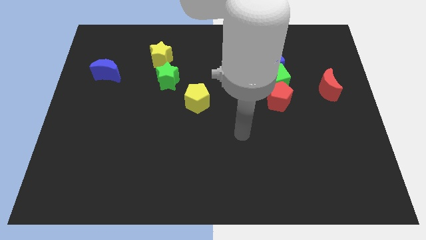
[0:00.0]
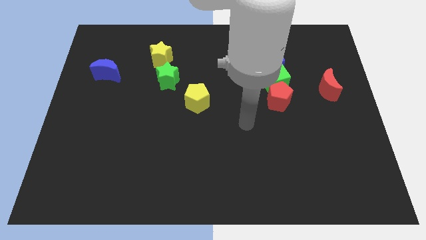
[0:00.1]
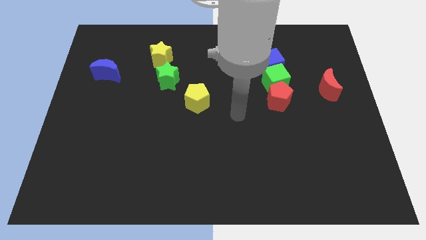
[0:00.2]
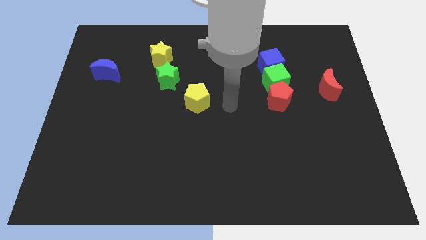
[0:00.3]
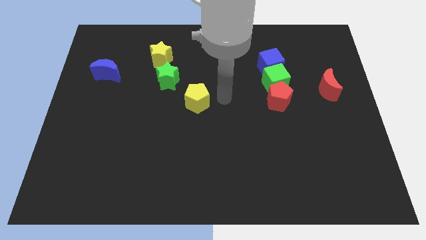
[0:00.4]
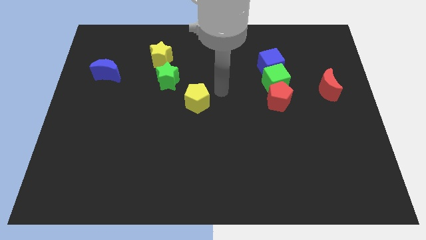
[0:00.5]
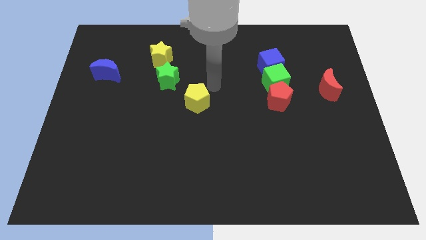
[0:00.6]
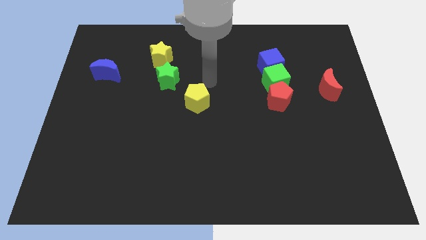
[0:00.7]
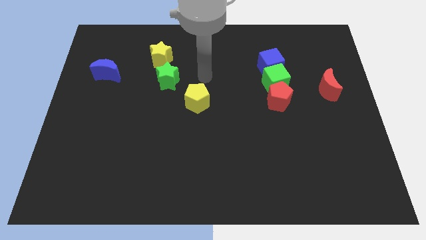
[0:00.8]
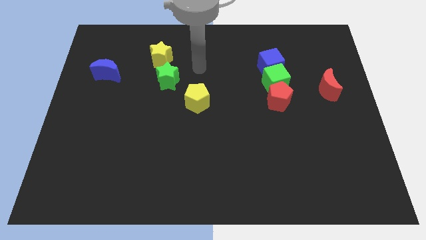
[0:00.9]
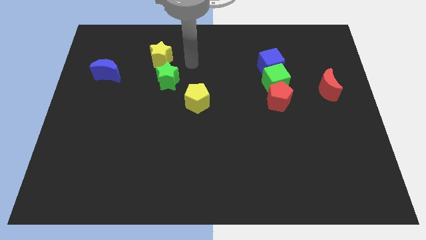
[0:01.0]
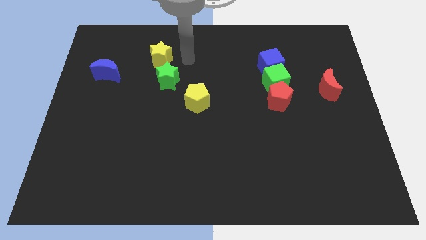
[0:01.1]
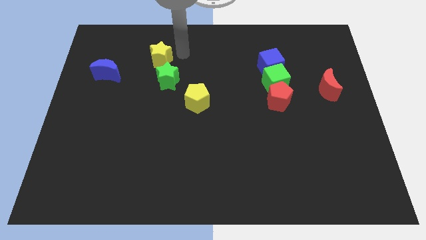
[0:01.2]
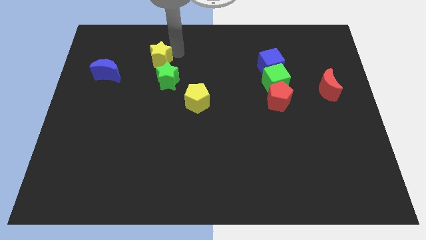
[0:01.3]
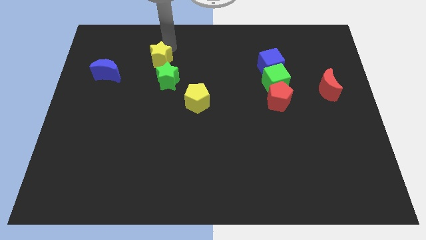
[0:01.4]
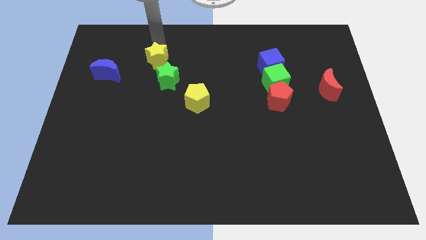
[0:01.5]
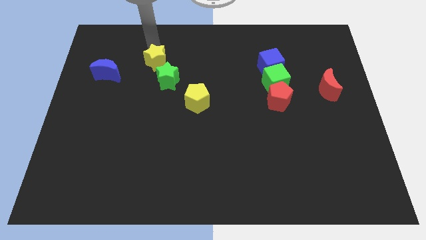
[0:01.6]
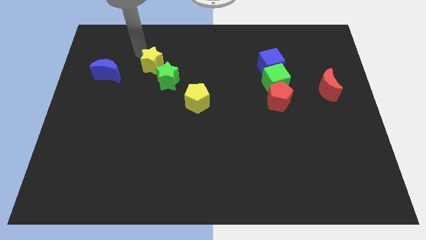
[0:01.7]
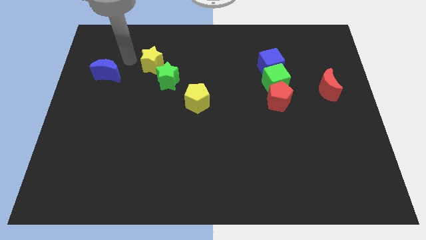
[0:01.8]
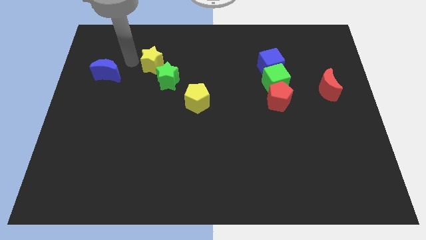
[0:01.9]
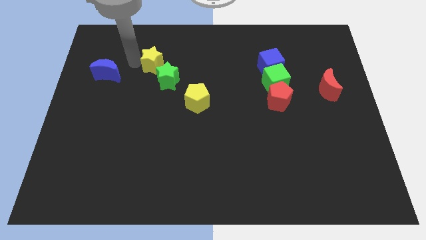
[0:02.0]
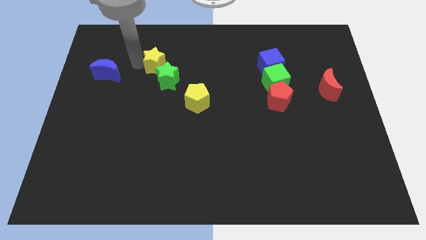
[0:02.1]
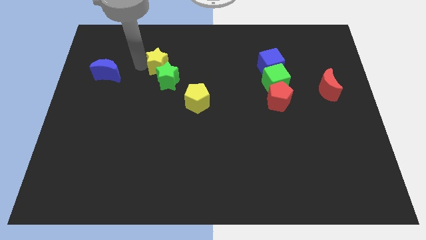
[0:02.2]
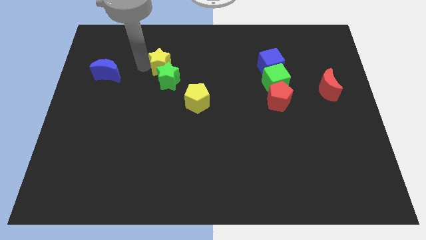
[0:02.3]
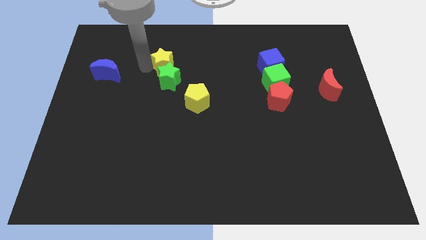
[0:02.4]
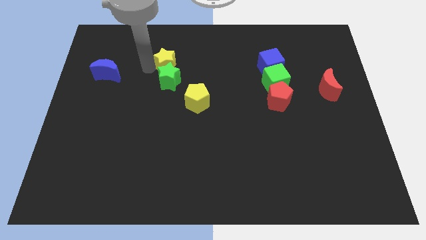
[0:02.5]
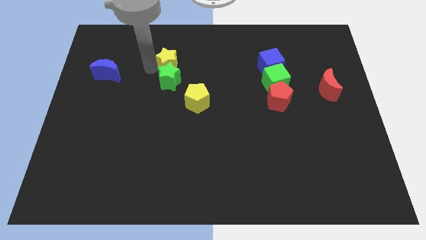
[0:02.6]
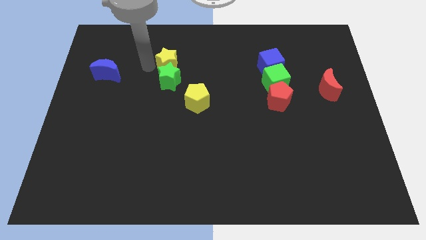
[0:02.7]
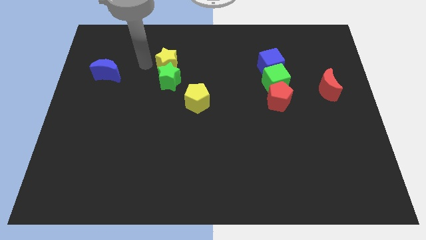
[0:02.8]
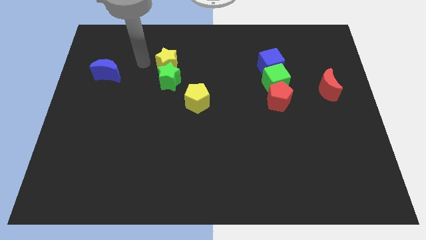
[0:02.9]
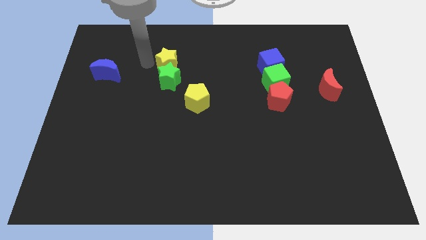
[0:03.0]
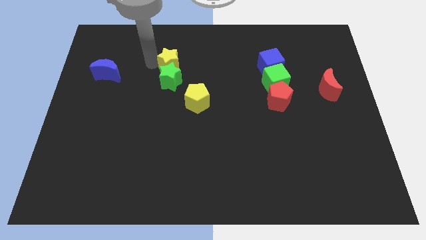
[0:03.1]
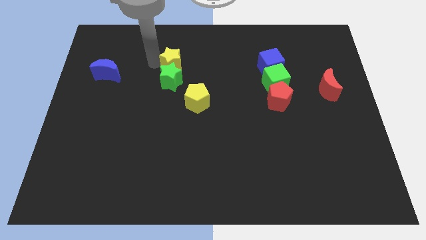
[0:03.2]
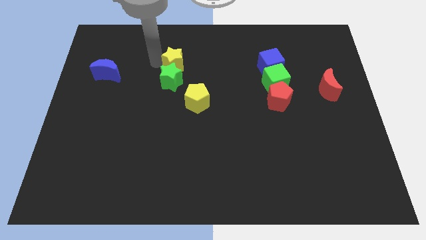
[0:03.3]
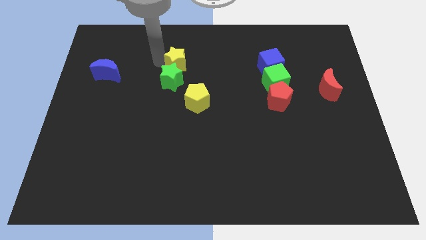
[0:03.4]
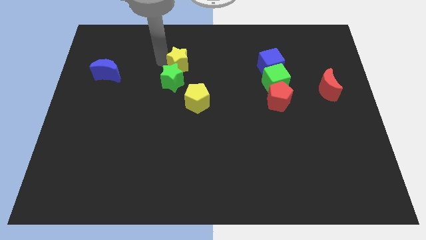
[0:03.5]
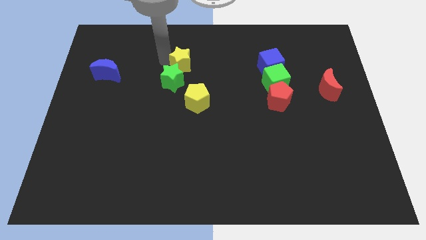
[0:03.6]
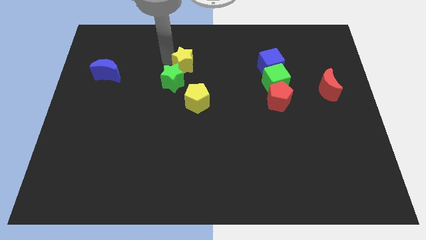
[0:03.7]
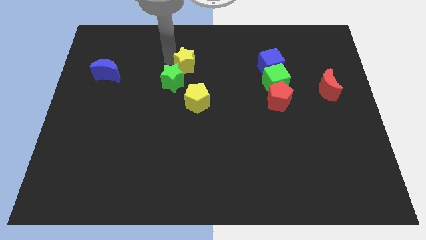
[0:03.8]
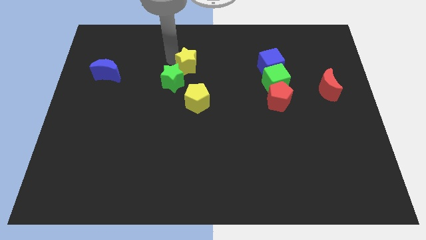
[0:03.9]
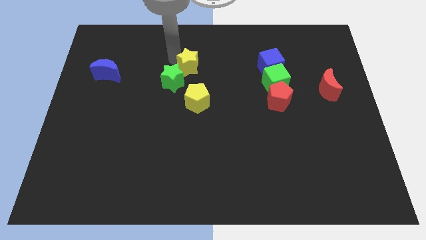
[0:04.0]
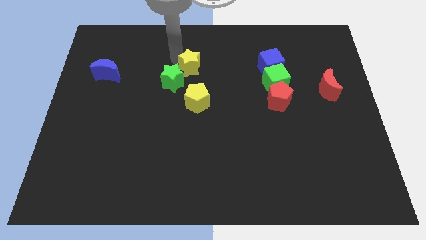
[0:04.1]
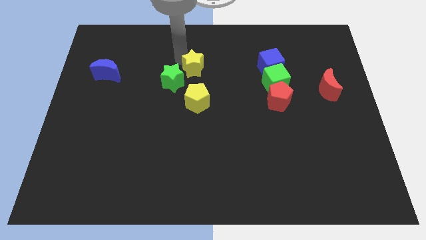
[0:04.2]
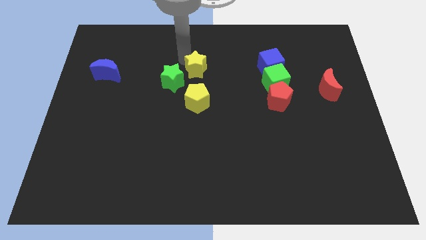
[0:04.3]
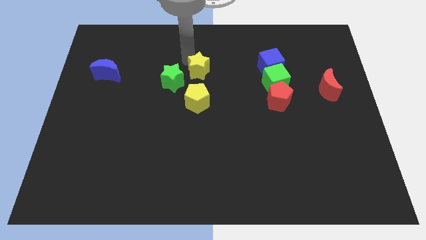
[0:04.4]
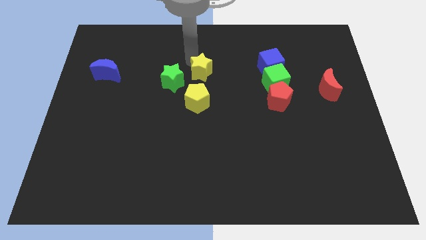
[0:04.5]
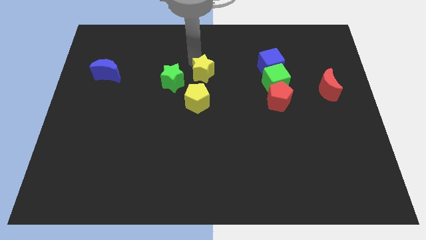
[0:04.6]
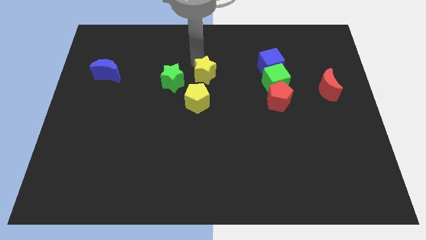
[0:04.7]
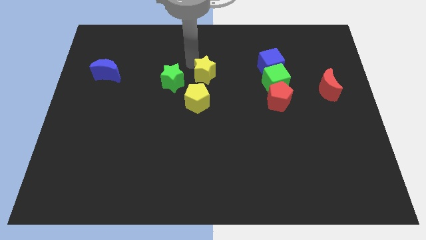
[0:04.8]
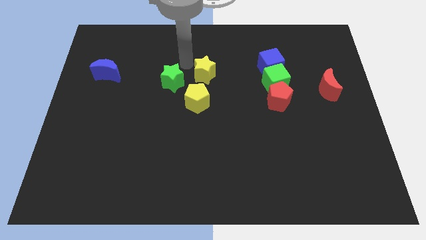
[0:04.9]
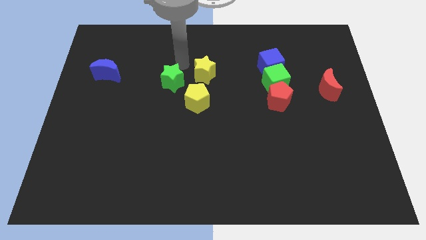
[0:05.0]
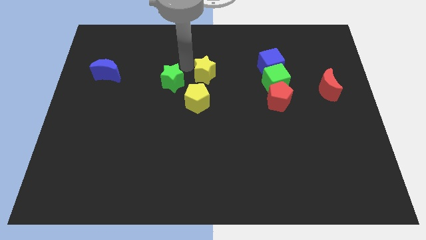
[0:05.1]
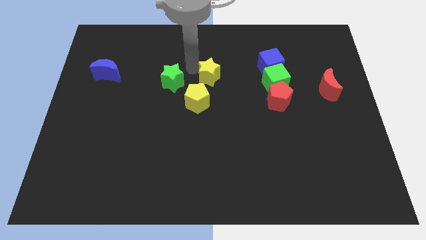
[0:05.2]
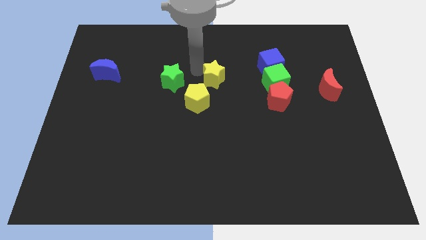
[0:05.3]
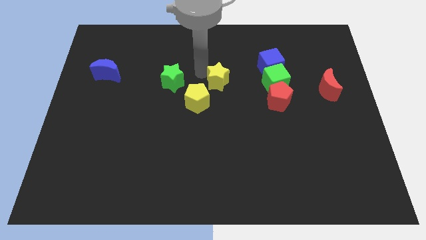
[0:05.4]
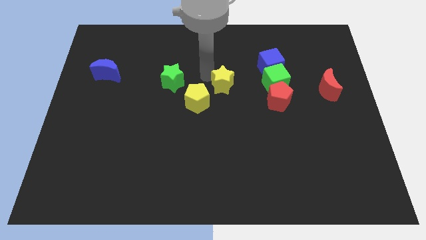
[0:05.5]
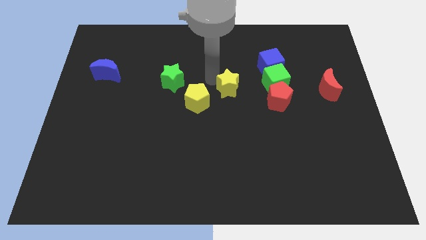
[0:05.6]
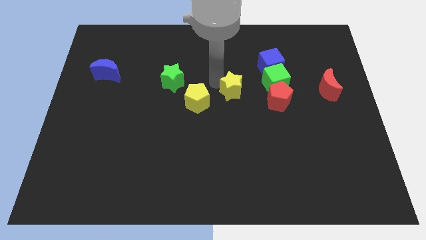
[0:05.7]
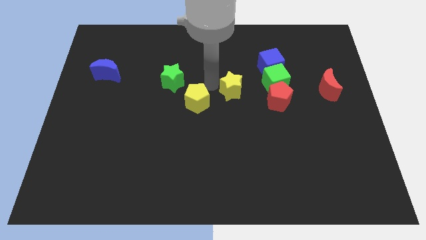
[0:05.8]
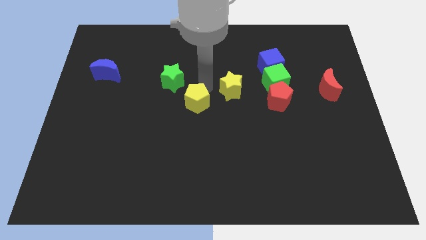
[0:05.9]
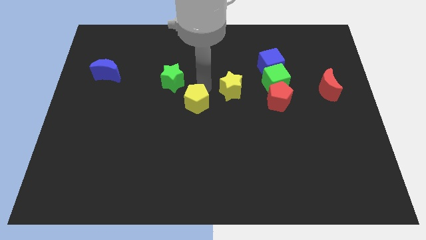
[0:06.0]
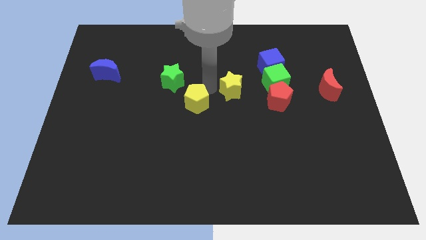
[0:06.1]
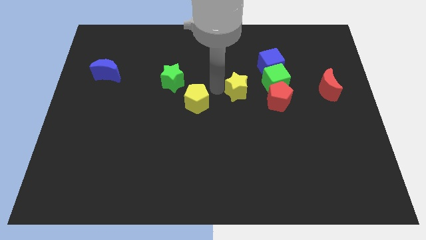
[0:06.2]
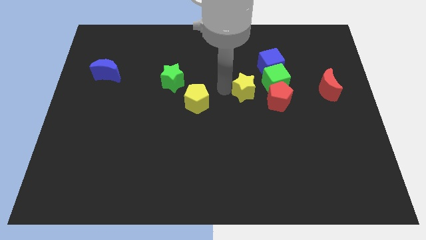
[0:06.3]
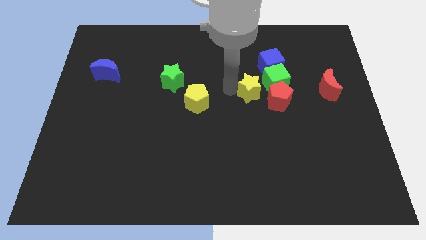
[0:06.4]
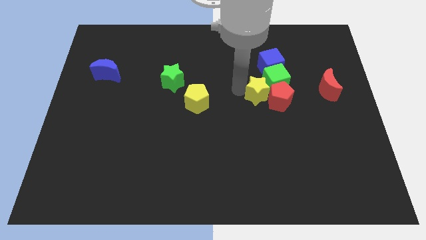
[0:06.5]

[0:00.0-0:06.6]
move the yellow star towards the red pentagon

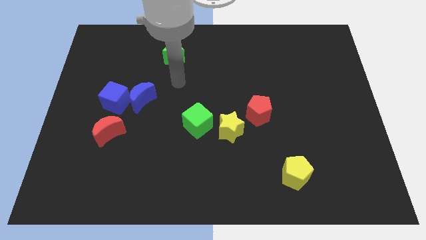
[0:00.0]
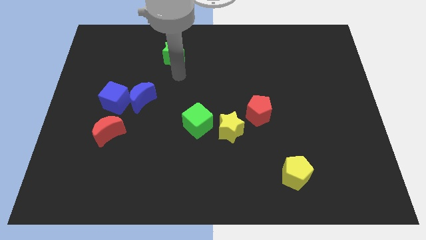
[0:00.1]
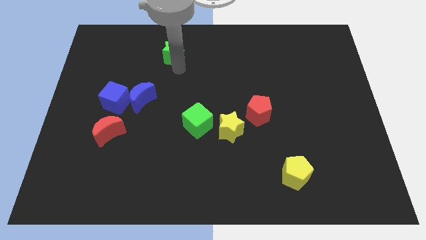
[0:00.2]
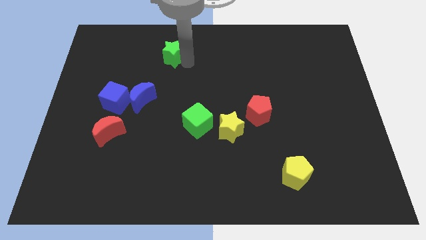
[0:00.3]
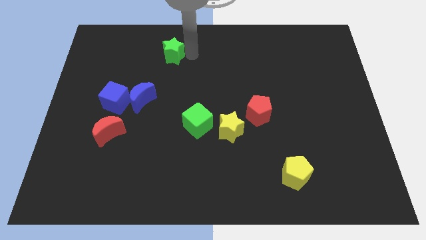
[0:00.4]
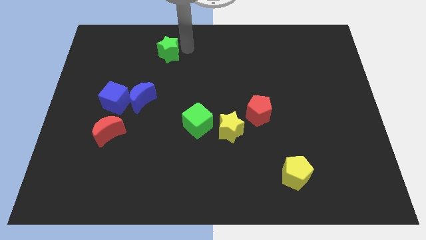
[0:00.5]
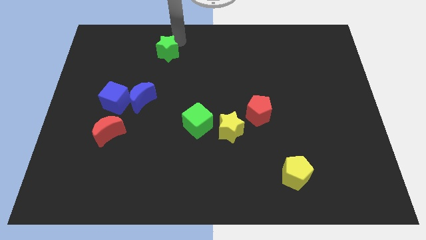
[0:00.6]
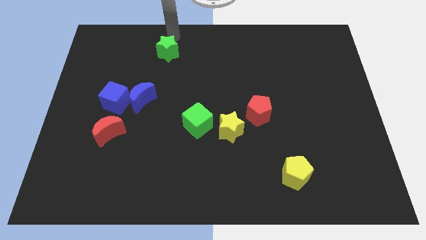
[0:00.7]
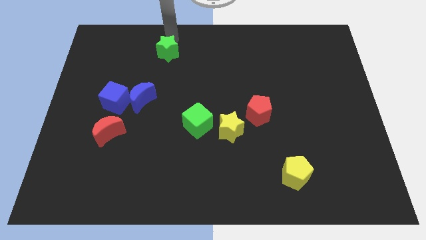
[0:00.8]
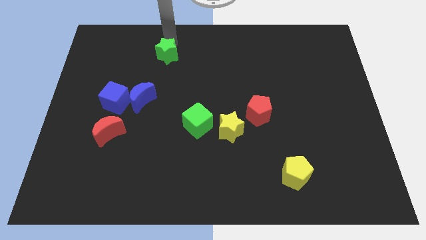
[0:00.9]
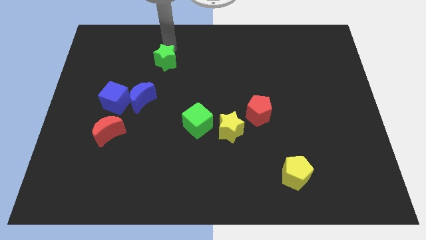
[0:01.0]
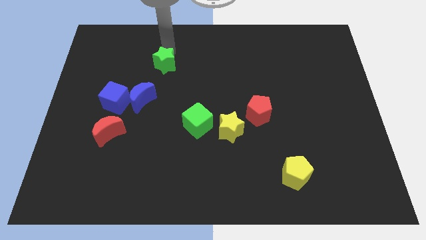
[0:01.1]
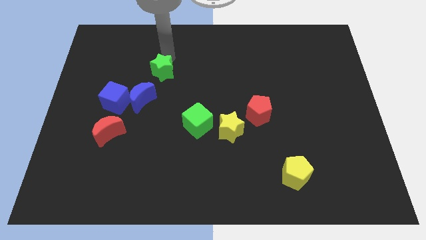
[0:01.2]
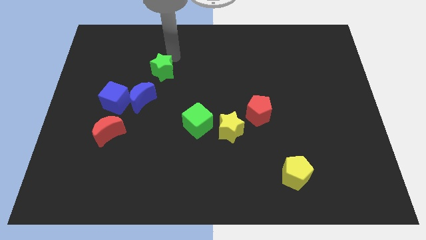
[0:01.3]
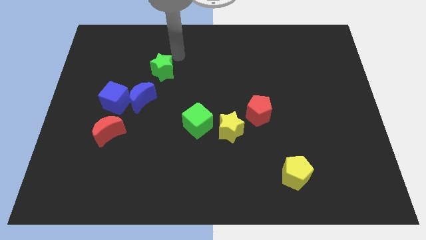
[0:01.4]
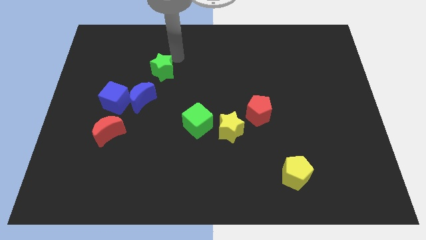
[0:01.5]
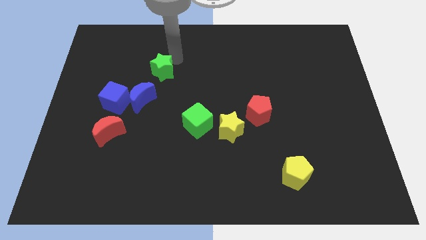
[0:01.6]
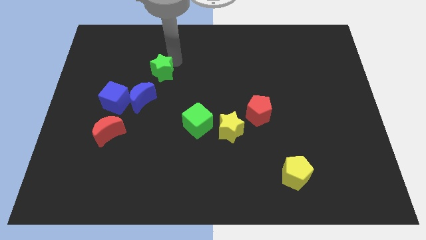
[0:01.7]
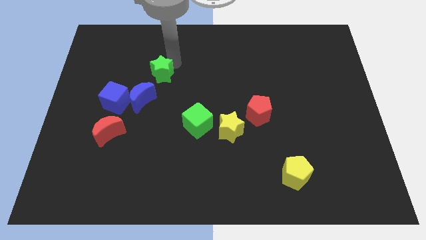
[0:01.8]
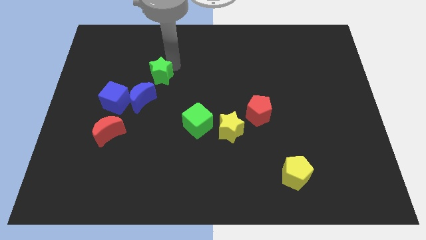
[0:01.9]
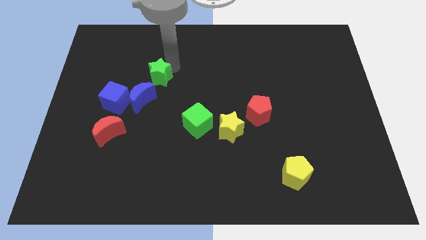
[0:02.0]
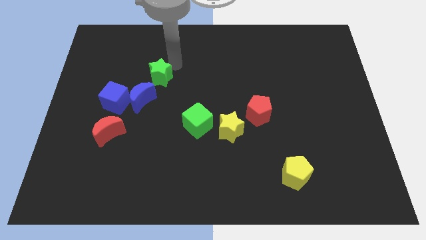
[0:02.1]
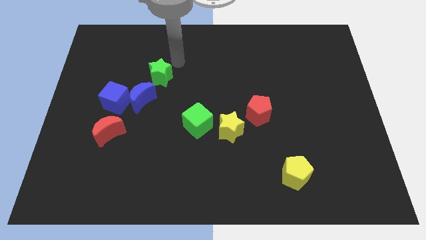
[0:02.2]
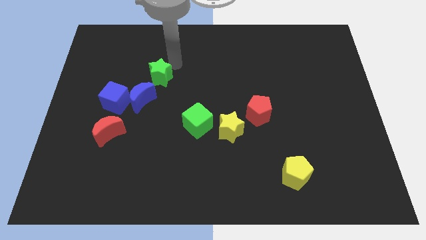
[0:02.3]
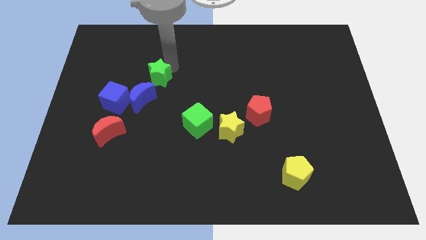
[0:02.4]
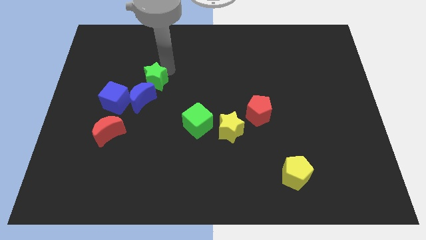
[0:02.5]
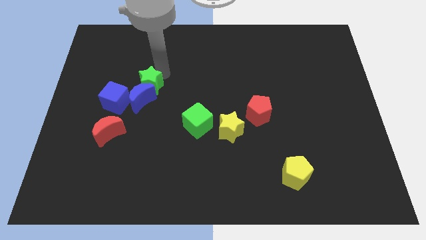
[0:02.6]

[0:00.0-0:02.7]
slide the green star next to the blue moon
